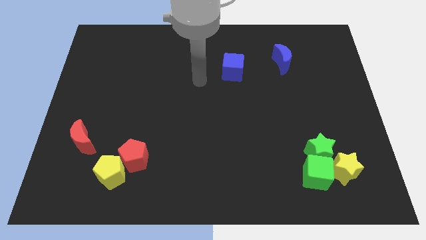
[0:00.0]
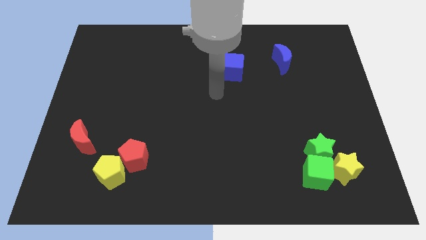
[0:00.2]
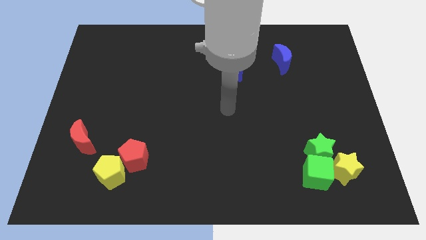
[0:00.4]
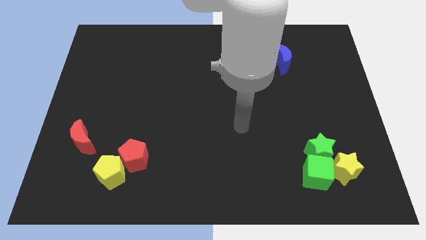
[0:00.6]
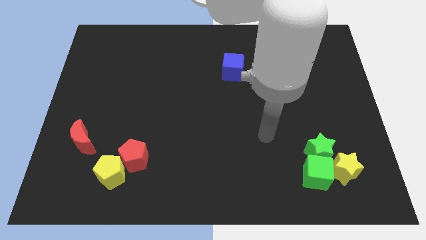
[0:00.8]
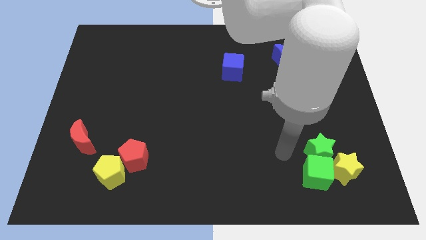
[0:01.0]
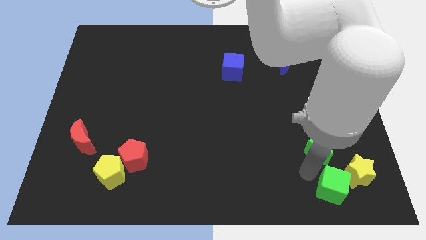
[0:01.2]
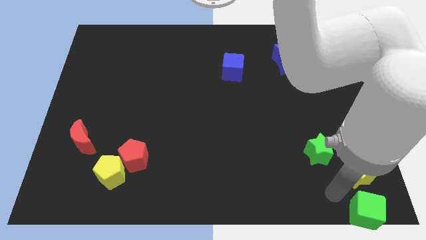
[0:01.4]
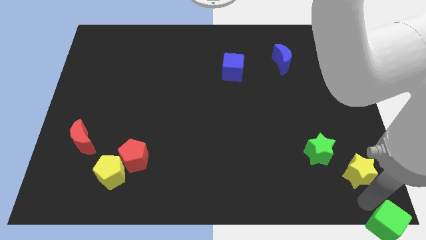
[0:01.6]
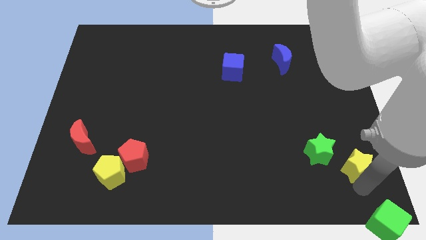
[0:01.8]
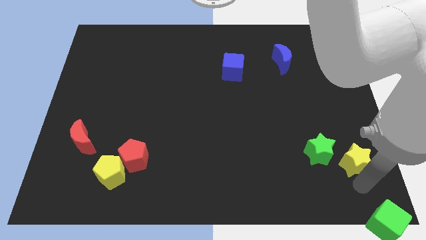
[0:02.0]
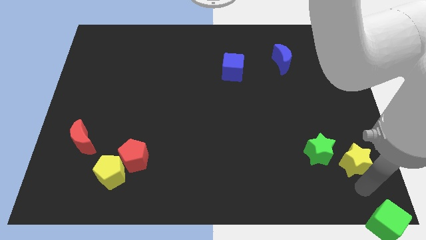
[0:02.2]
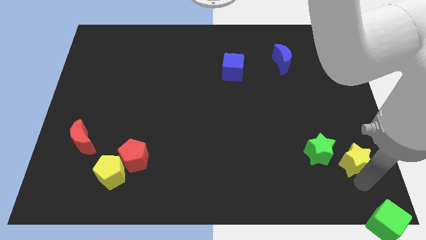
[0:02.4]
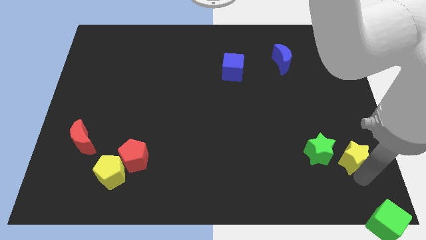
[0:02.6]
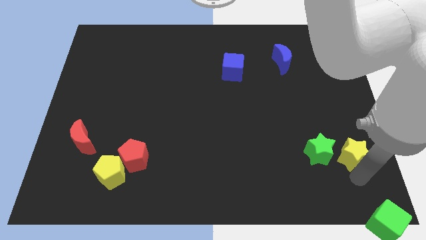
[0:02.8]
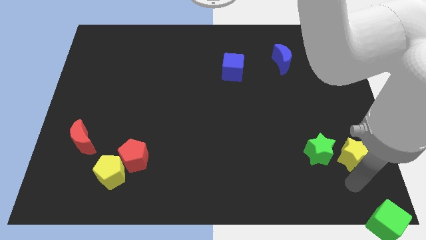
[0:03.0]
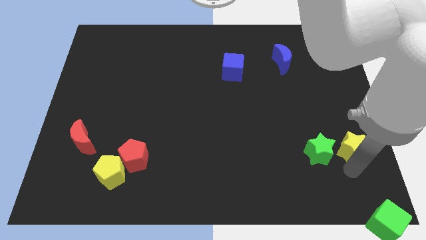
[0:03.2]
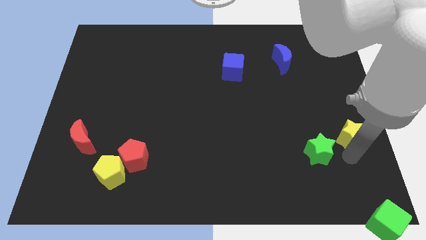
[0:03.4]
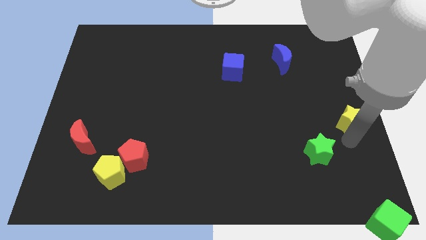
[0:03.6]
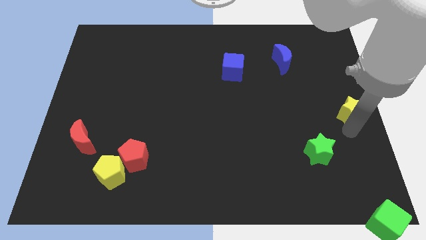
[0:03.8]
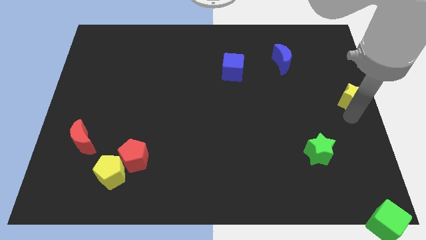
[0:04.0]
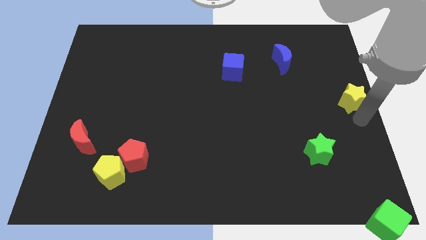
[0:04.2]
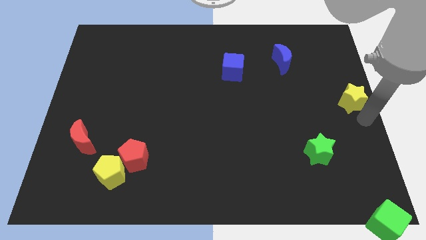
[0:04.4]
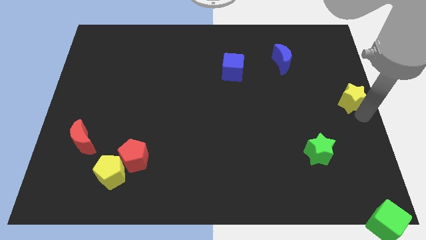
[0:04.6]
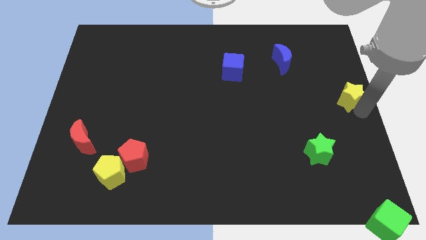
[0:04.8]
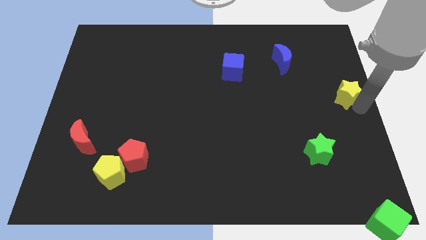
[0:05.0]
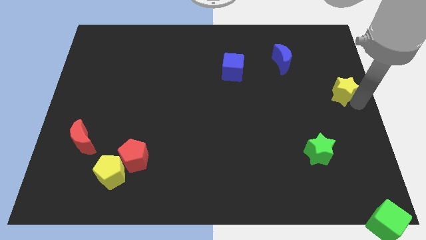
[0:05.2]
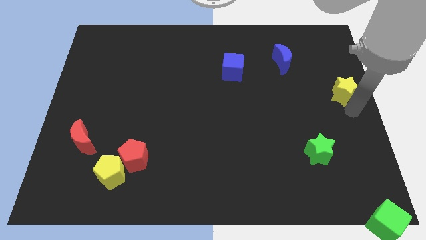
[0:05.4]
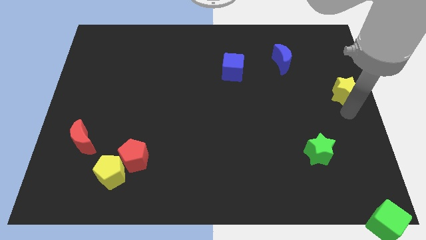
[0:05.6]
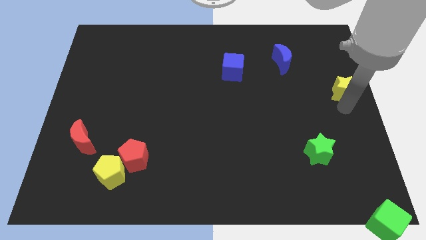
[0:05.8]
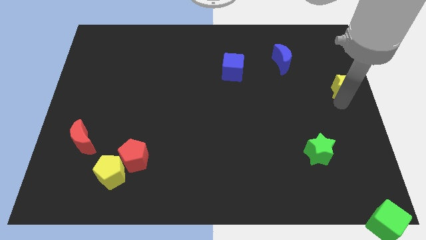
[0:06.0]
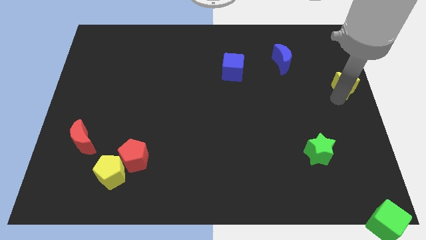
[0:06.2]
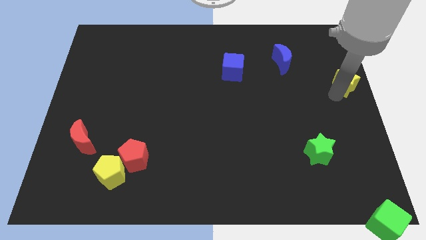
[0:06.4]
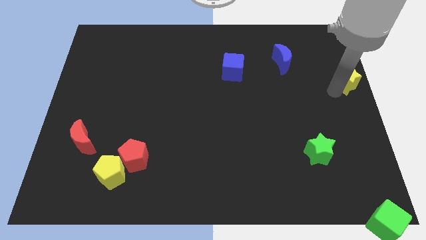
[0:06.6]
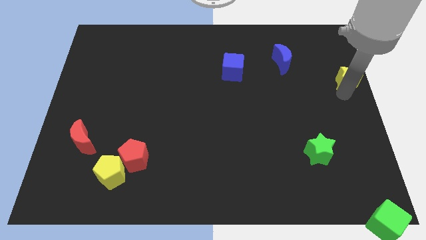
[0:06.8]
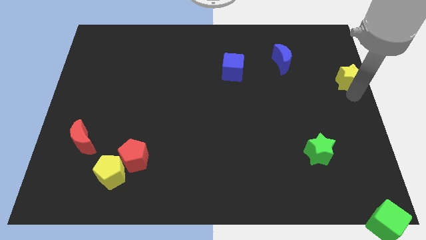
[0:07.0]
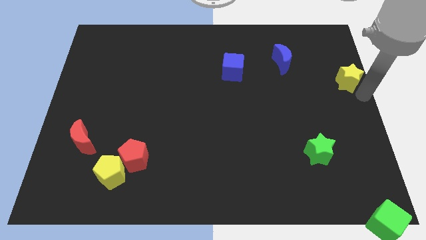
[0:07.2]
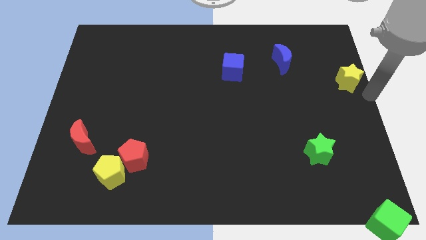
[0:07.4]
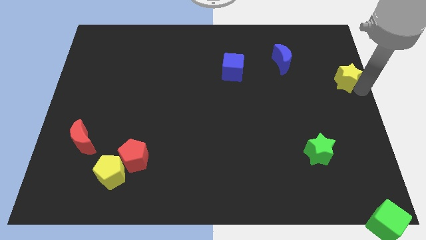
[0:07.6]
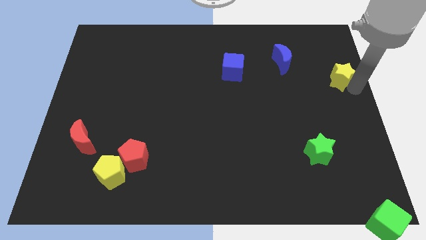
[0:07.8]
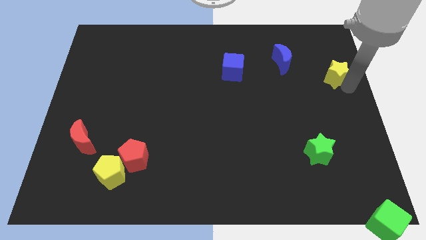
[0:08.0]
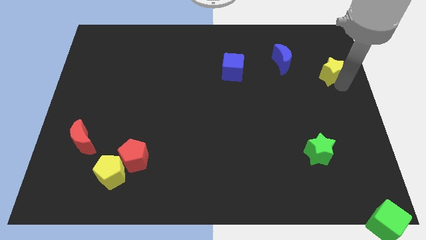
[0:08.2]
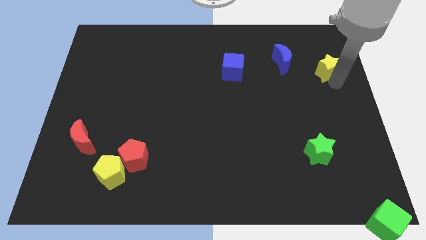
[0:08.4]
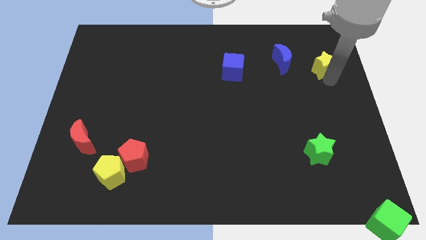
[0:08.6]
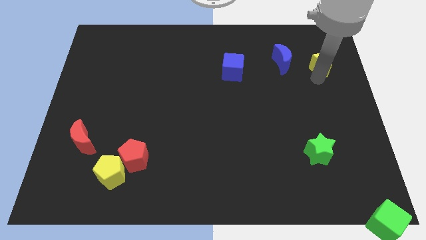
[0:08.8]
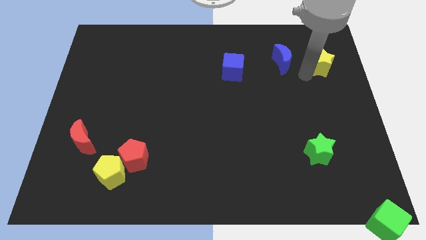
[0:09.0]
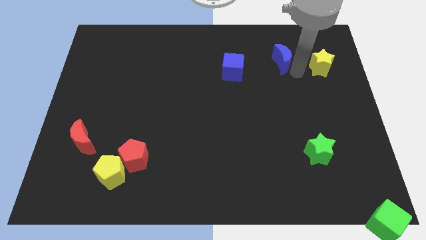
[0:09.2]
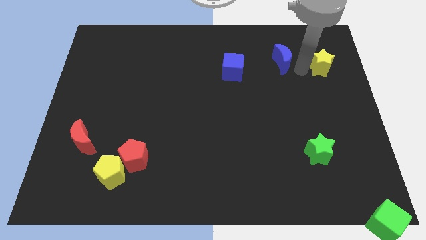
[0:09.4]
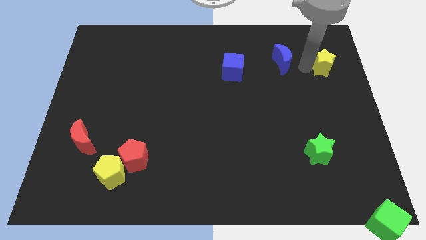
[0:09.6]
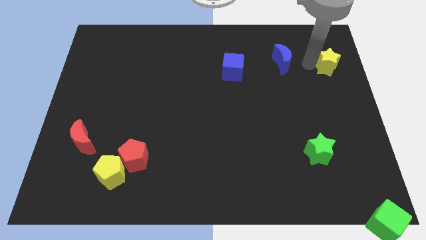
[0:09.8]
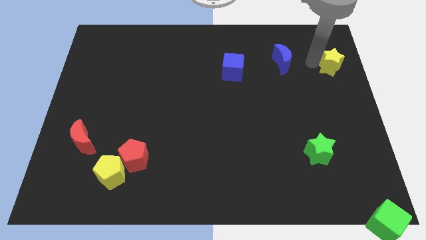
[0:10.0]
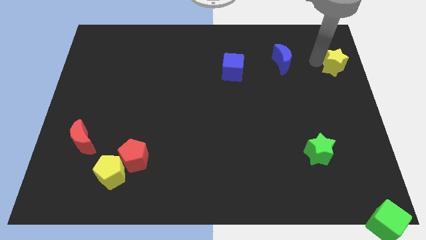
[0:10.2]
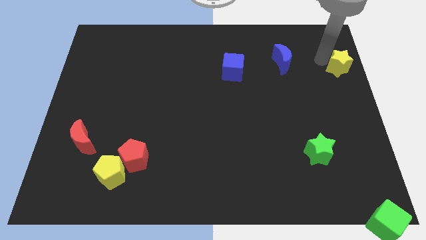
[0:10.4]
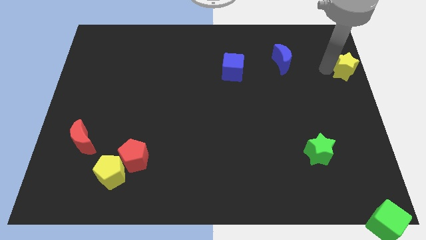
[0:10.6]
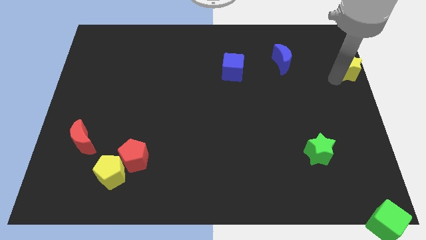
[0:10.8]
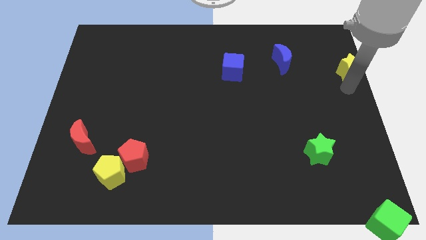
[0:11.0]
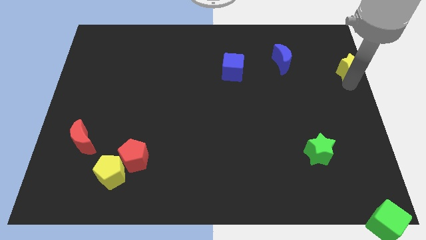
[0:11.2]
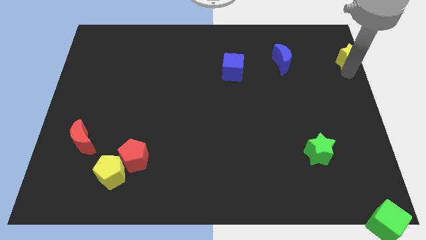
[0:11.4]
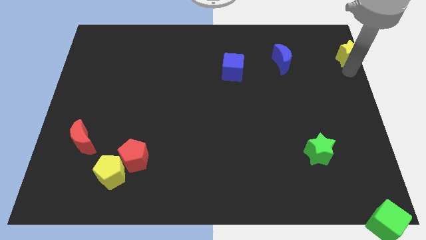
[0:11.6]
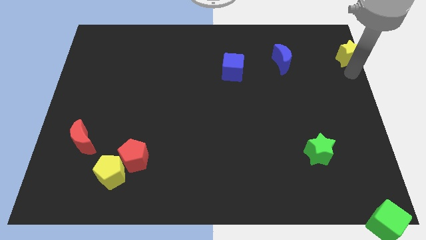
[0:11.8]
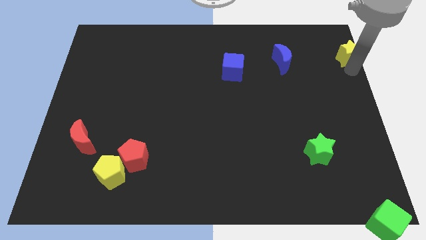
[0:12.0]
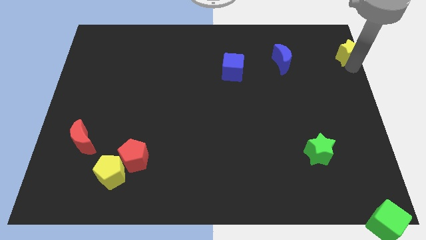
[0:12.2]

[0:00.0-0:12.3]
push the yellow star to the top right corner
